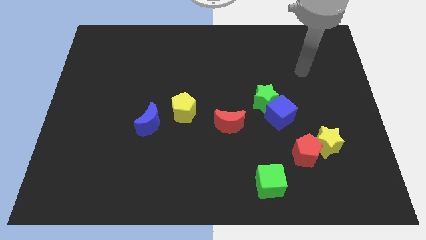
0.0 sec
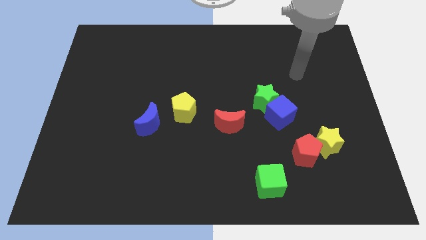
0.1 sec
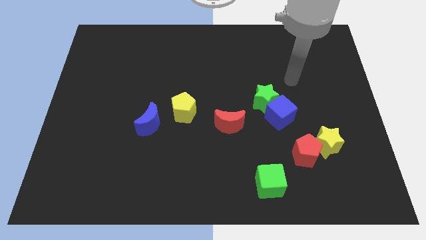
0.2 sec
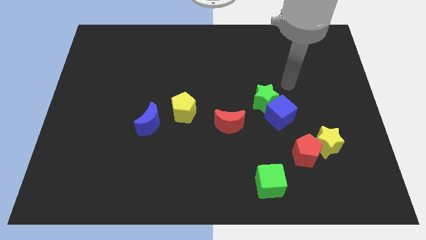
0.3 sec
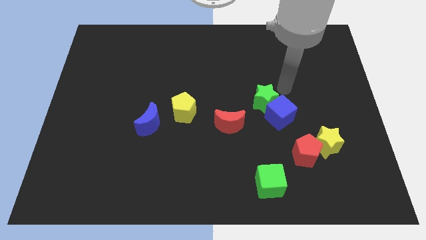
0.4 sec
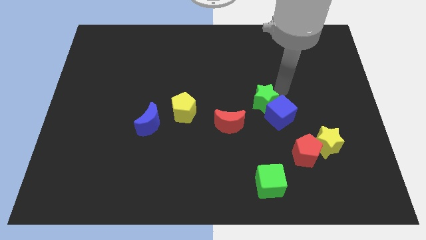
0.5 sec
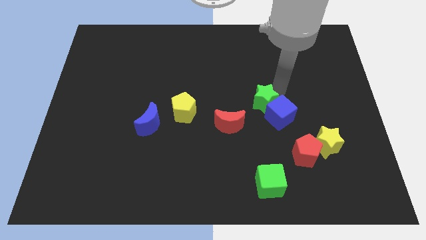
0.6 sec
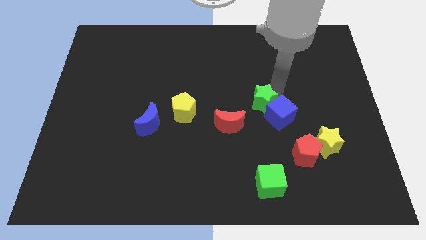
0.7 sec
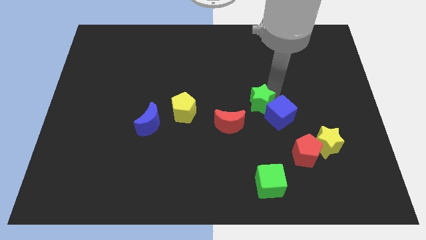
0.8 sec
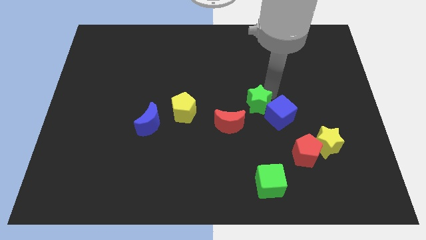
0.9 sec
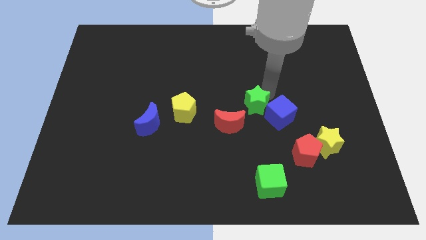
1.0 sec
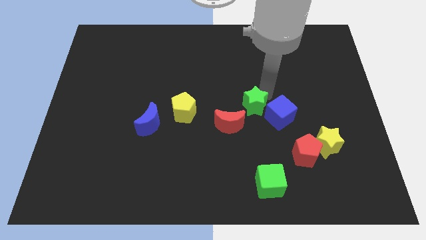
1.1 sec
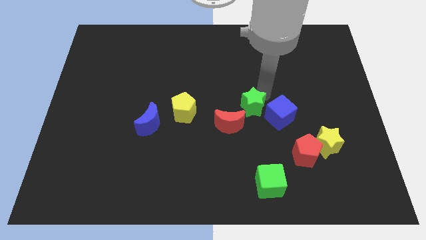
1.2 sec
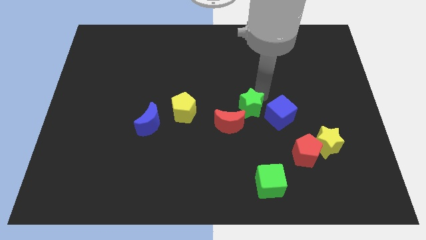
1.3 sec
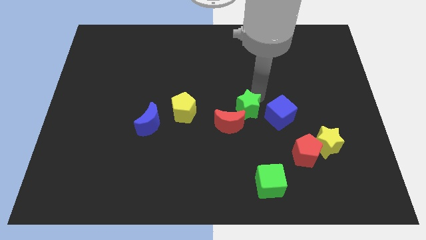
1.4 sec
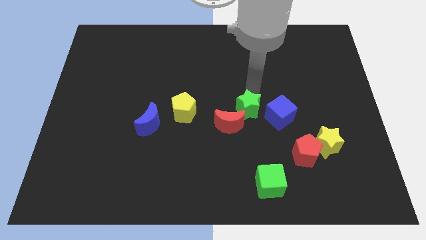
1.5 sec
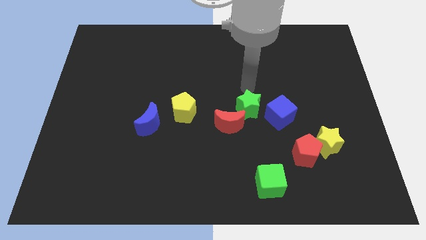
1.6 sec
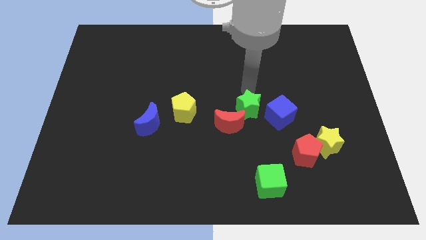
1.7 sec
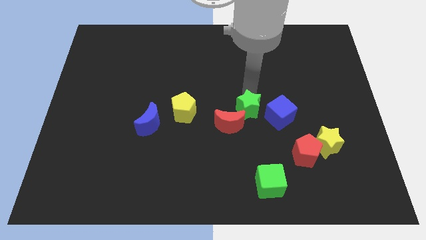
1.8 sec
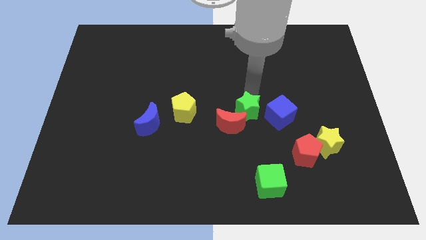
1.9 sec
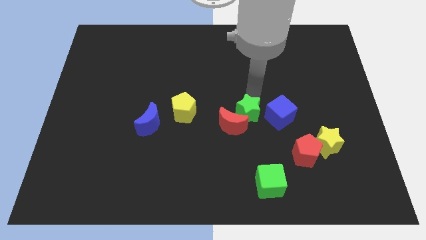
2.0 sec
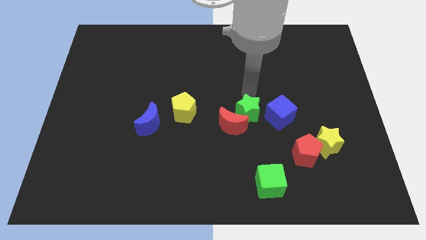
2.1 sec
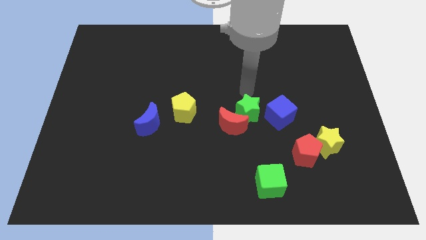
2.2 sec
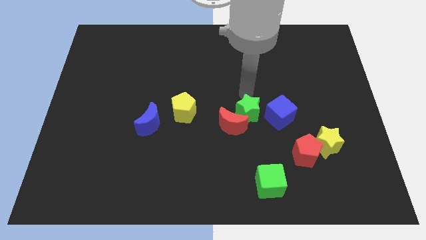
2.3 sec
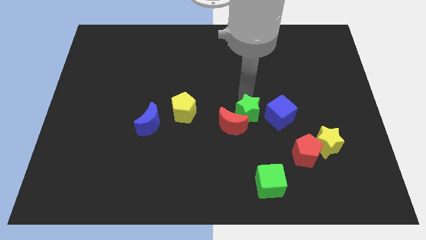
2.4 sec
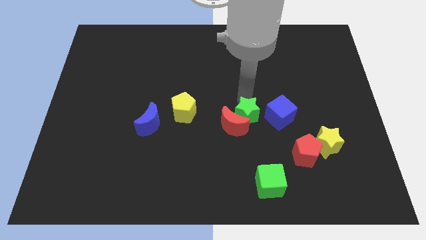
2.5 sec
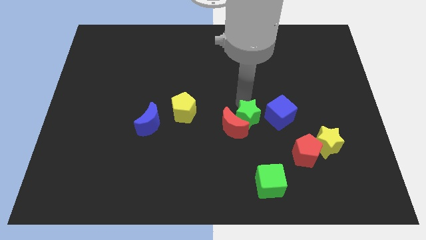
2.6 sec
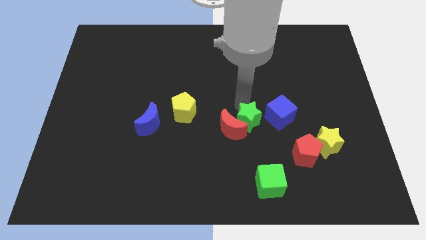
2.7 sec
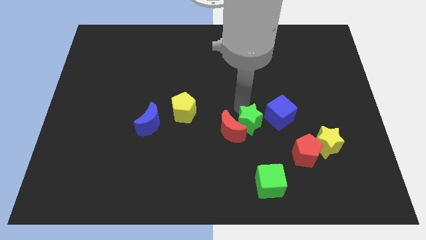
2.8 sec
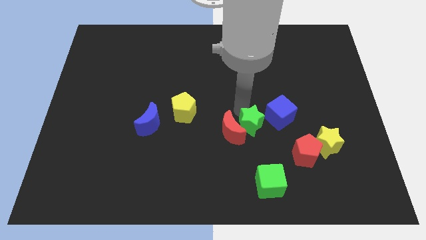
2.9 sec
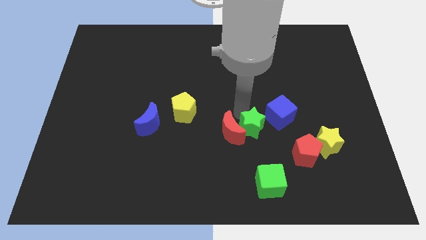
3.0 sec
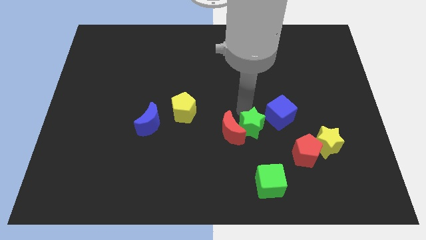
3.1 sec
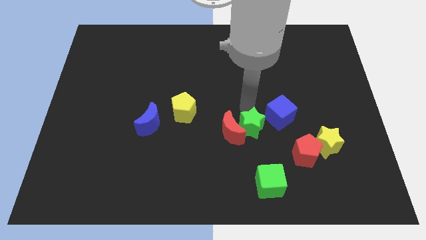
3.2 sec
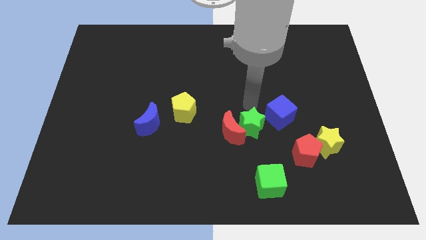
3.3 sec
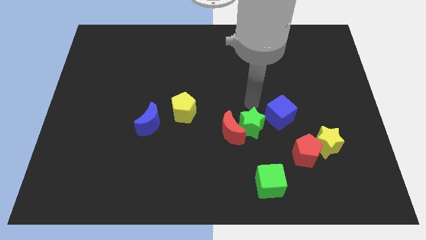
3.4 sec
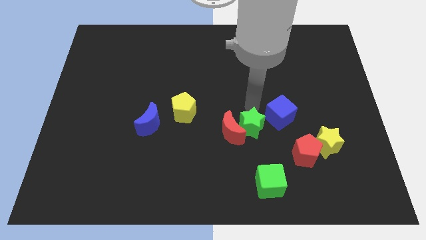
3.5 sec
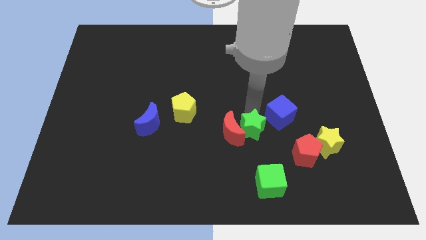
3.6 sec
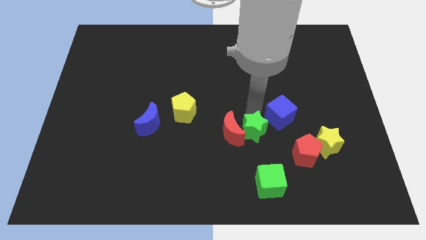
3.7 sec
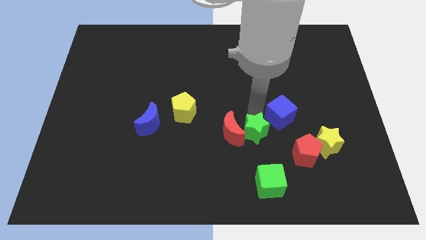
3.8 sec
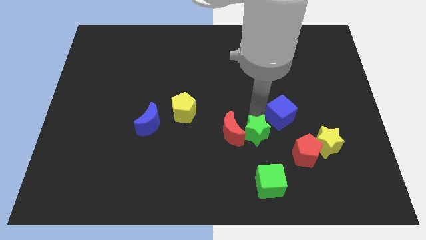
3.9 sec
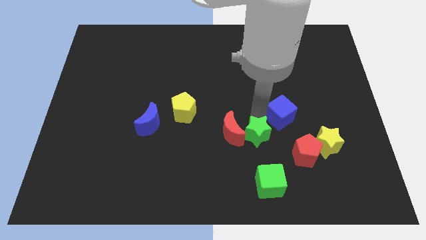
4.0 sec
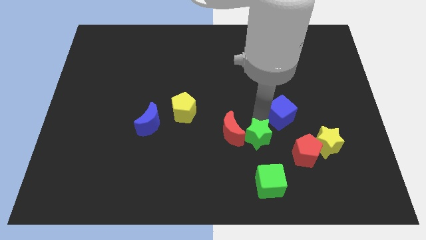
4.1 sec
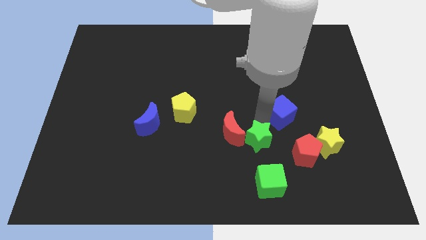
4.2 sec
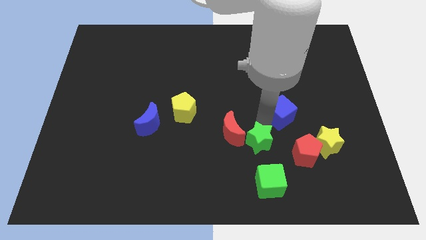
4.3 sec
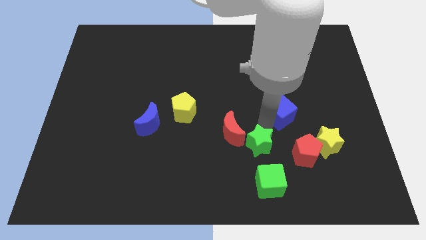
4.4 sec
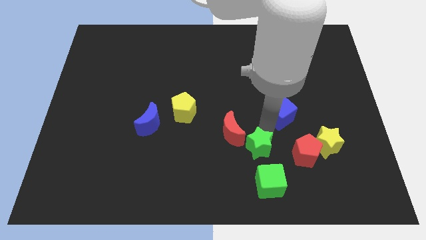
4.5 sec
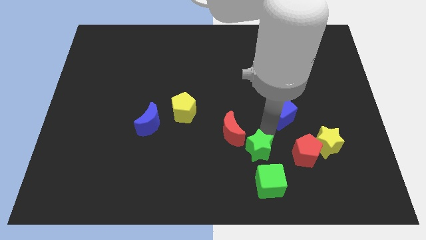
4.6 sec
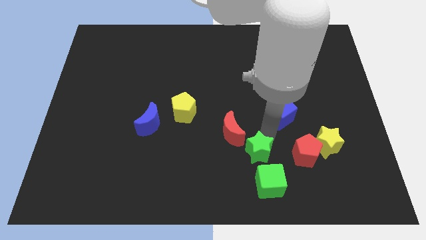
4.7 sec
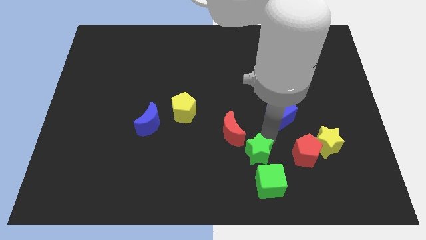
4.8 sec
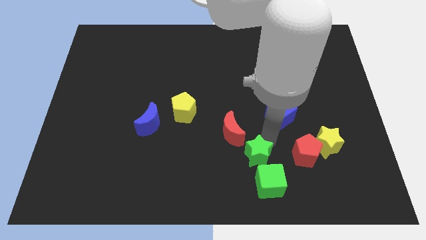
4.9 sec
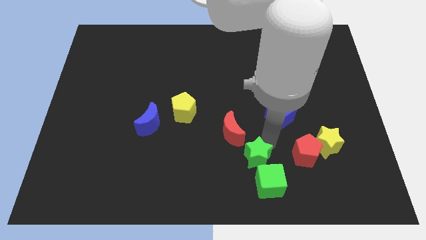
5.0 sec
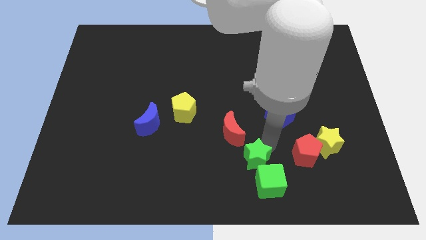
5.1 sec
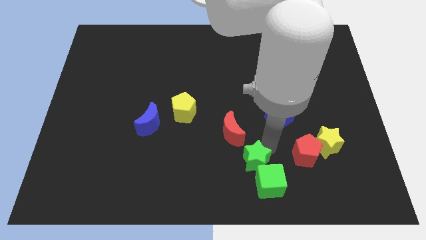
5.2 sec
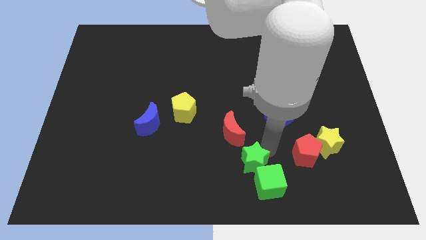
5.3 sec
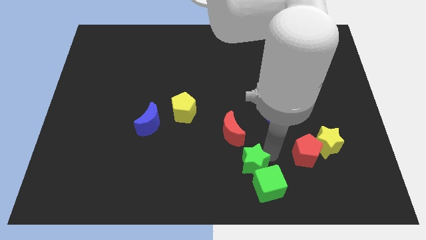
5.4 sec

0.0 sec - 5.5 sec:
move the green star to the bottom side
